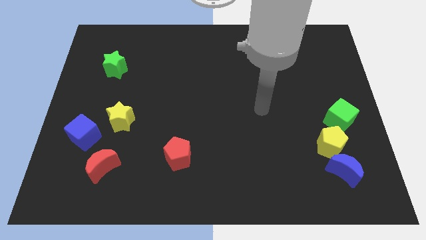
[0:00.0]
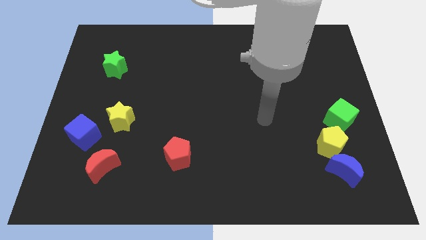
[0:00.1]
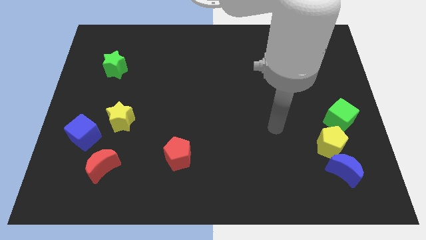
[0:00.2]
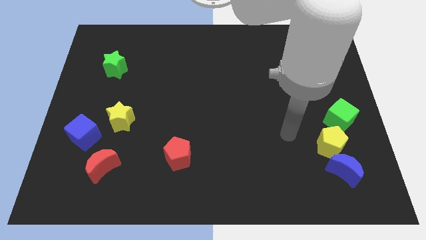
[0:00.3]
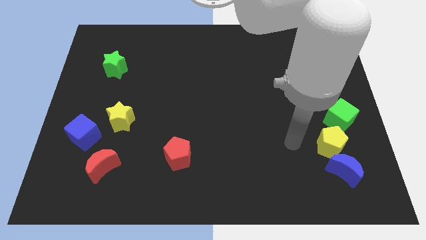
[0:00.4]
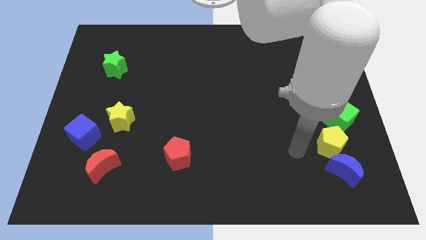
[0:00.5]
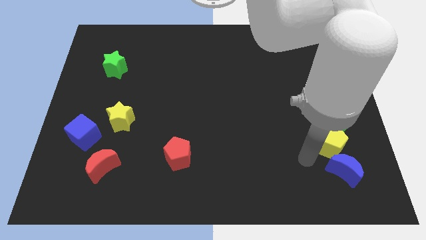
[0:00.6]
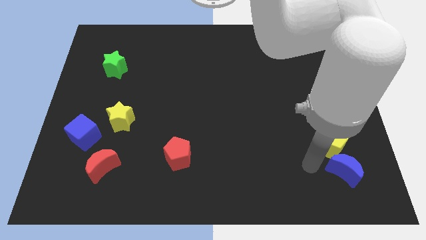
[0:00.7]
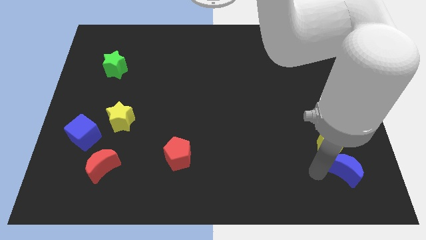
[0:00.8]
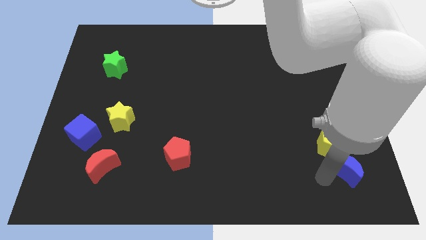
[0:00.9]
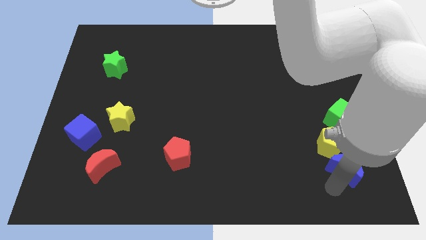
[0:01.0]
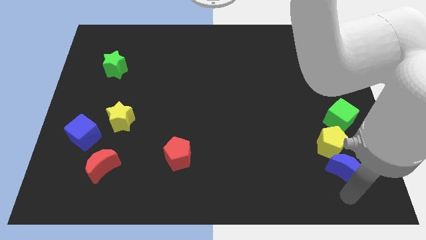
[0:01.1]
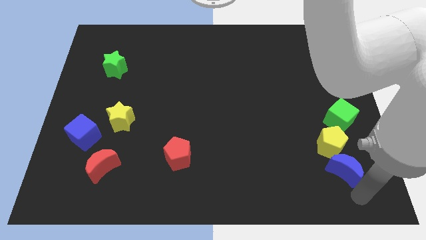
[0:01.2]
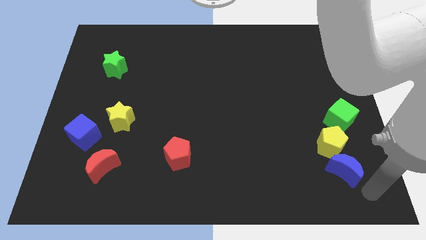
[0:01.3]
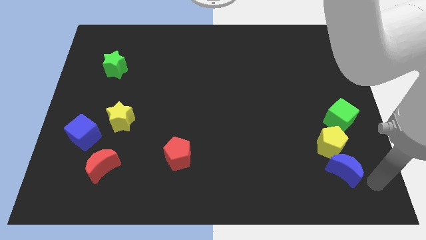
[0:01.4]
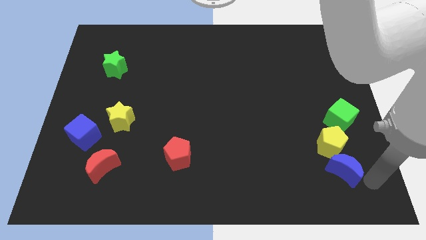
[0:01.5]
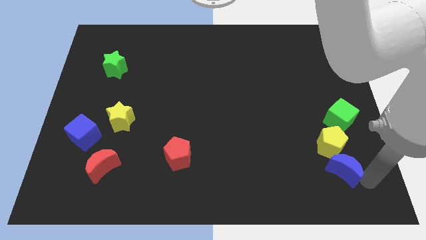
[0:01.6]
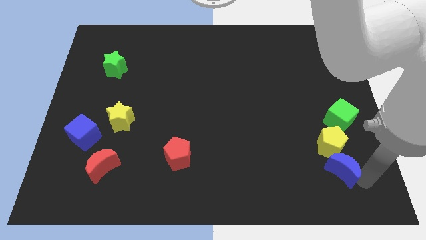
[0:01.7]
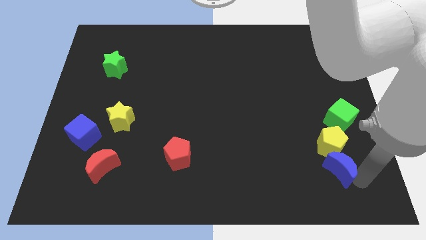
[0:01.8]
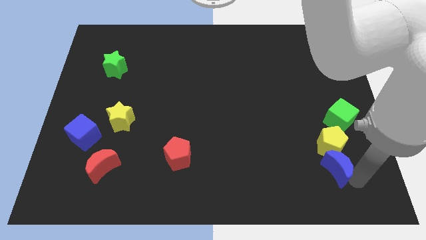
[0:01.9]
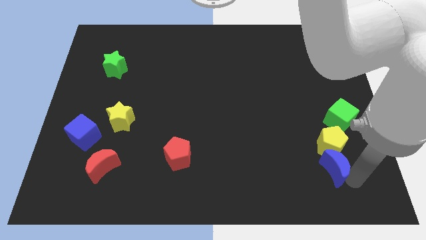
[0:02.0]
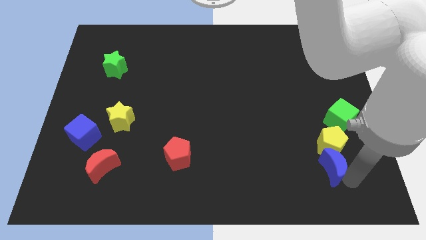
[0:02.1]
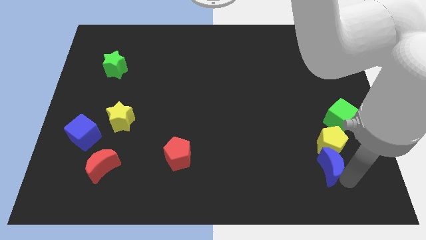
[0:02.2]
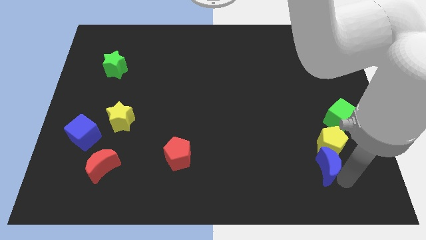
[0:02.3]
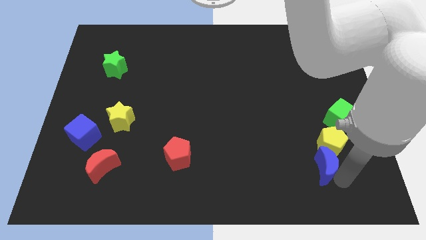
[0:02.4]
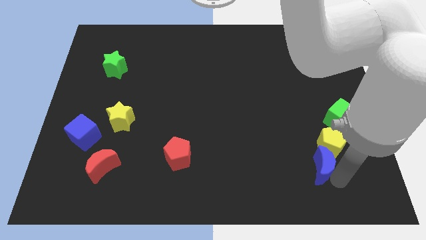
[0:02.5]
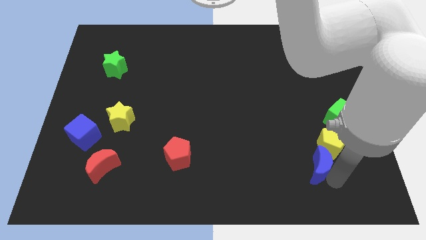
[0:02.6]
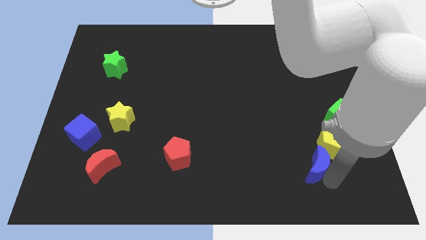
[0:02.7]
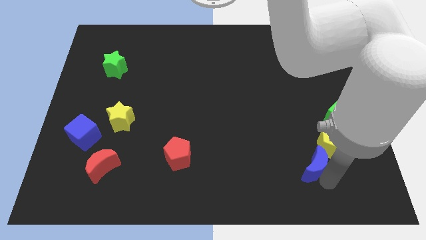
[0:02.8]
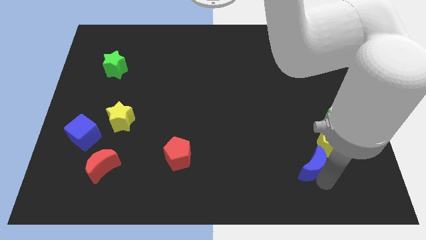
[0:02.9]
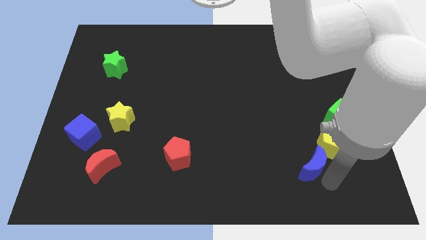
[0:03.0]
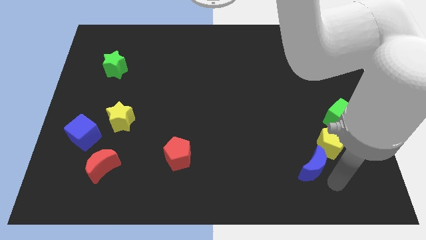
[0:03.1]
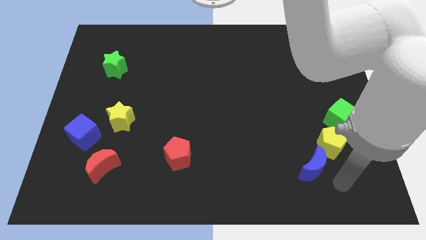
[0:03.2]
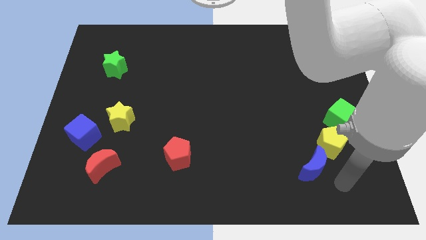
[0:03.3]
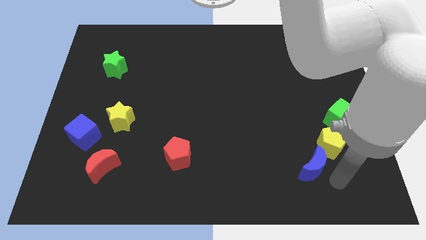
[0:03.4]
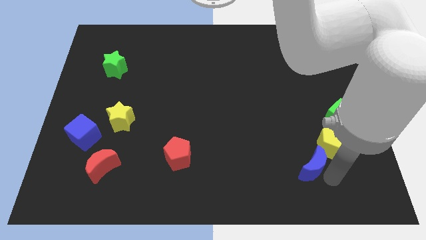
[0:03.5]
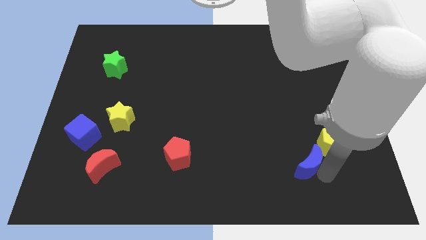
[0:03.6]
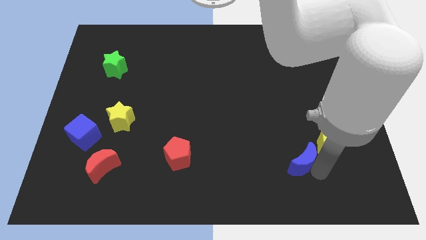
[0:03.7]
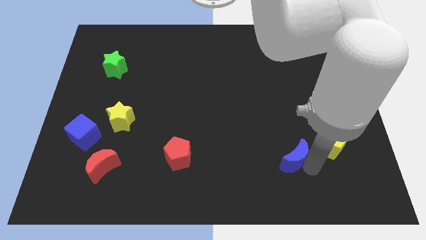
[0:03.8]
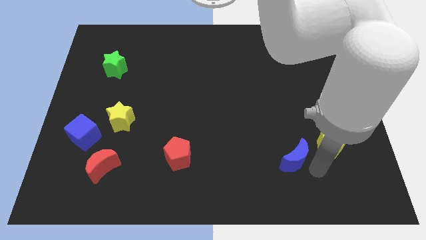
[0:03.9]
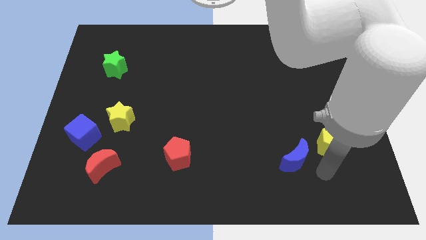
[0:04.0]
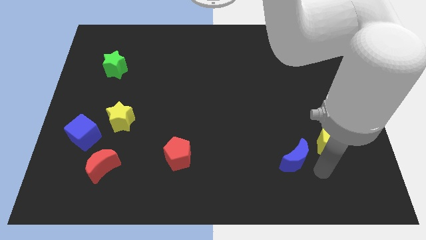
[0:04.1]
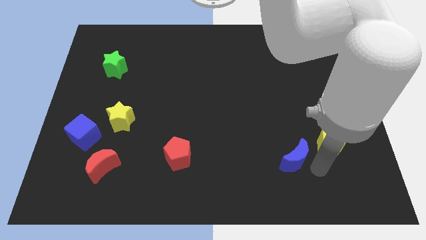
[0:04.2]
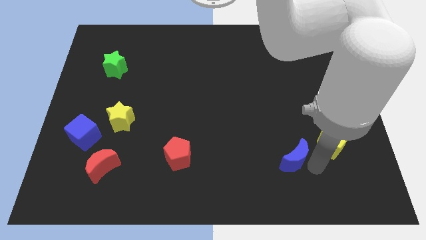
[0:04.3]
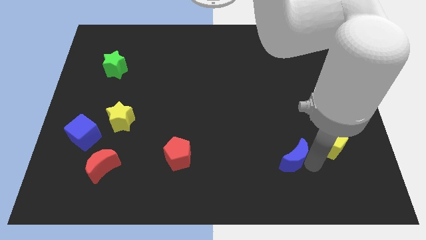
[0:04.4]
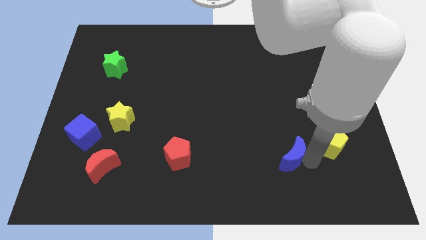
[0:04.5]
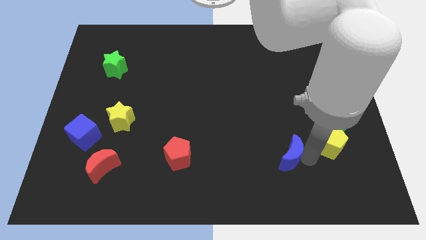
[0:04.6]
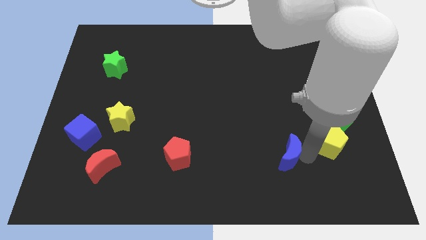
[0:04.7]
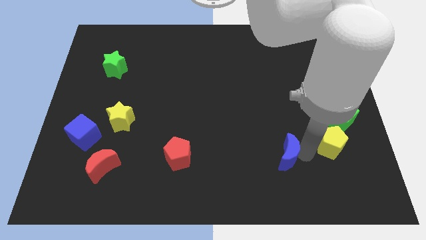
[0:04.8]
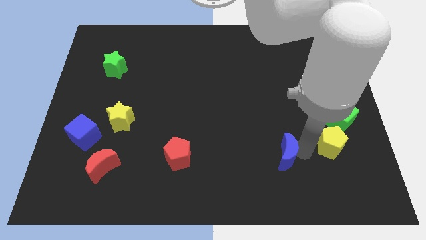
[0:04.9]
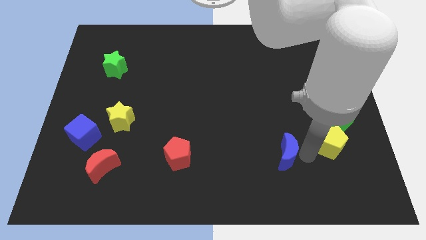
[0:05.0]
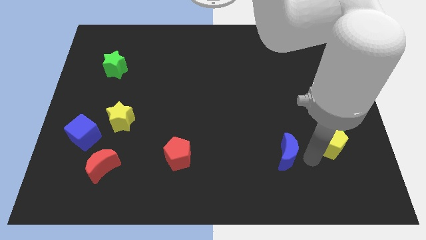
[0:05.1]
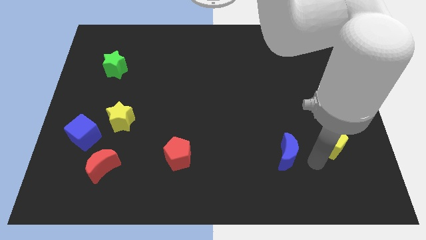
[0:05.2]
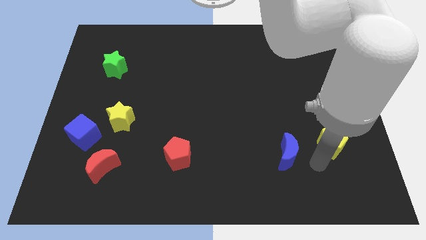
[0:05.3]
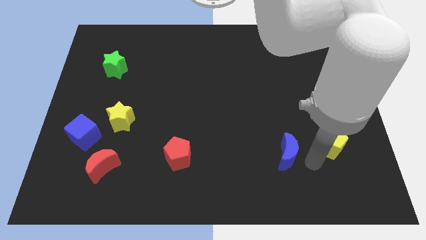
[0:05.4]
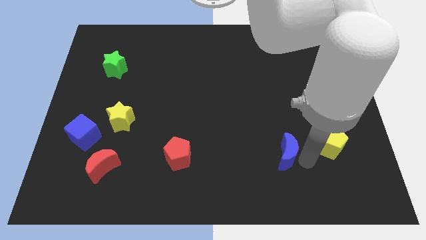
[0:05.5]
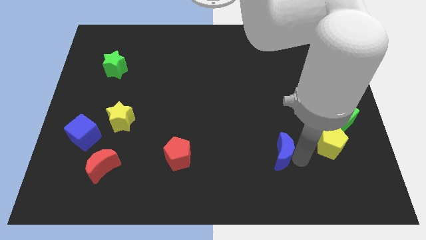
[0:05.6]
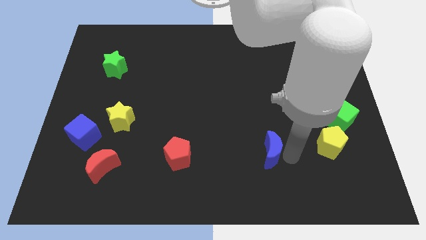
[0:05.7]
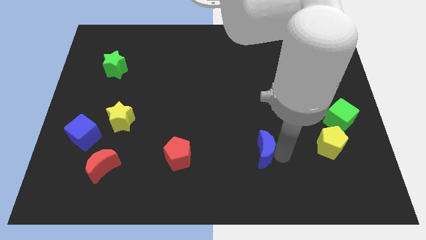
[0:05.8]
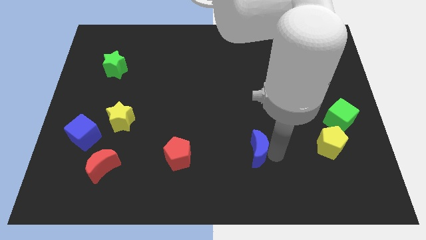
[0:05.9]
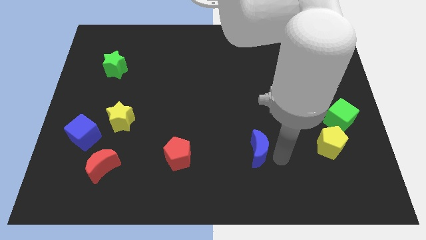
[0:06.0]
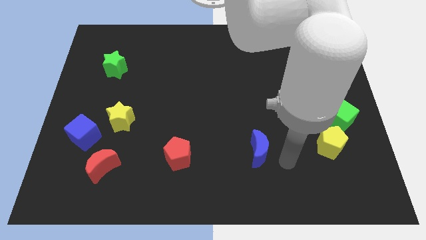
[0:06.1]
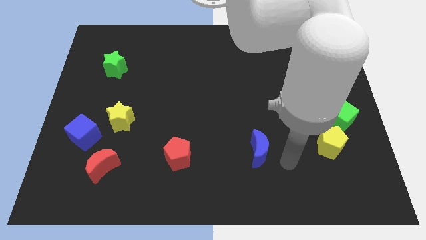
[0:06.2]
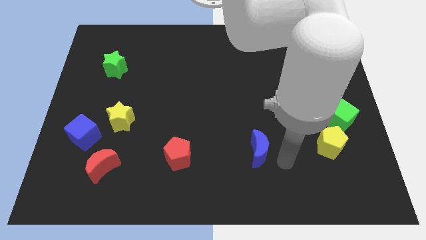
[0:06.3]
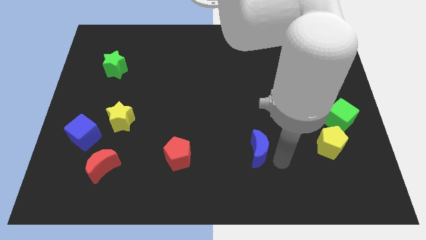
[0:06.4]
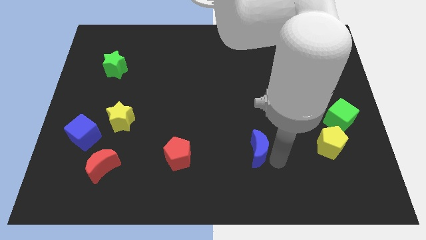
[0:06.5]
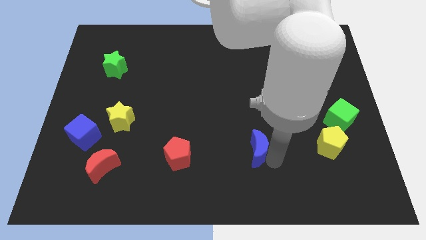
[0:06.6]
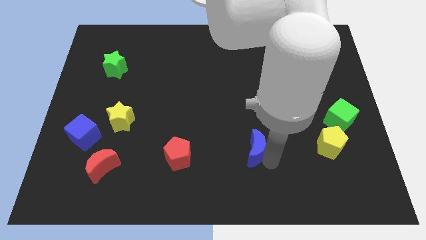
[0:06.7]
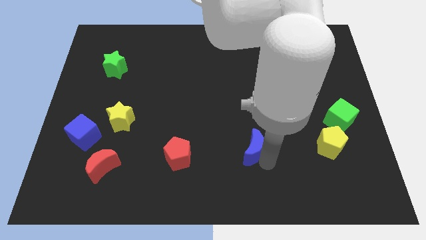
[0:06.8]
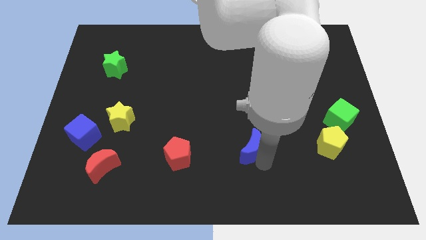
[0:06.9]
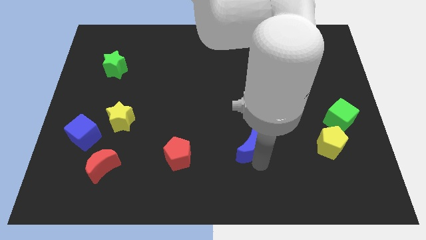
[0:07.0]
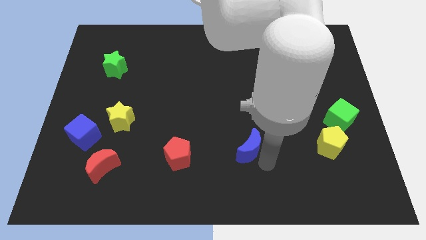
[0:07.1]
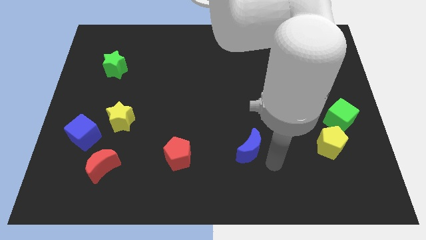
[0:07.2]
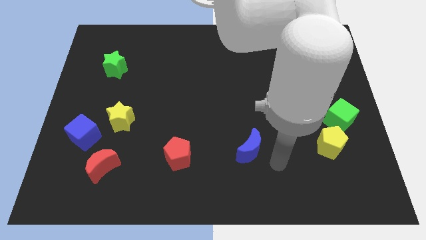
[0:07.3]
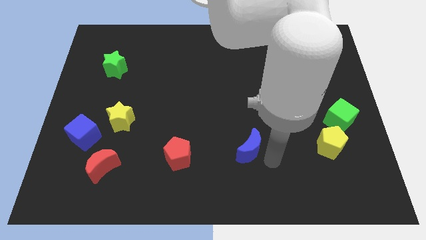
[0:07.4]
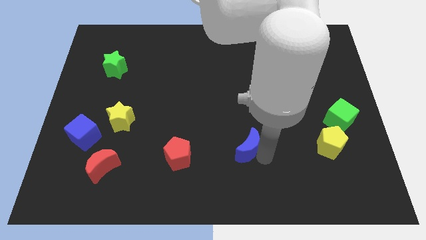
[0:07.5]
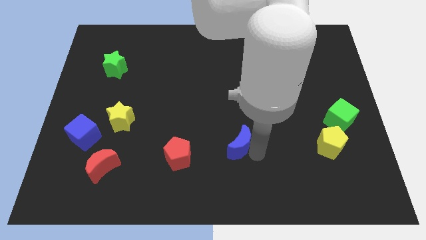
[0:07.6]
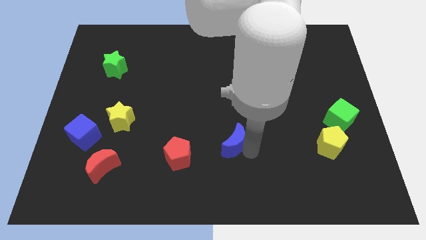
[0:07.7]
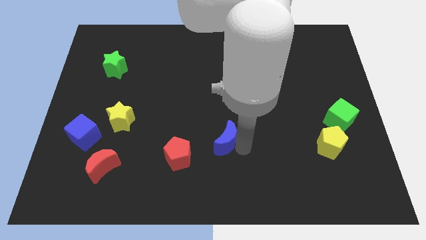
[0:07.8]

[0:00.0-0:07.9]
slide the blue moon diagonally up and to the right of the red pentagon

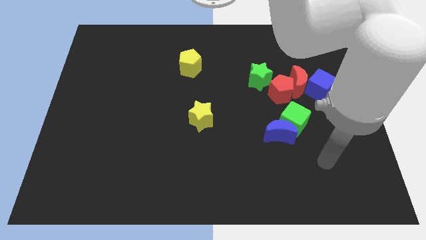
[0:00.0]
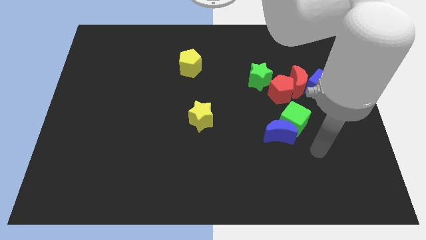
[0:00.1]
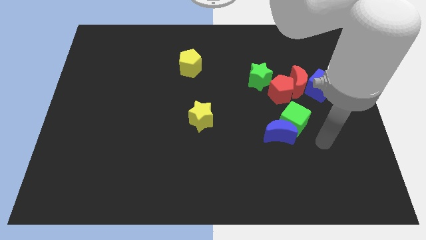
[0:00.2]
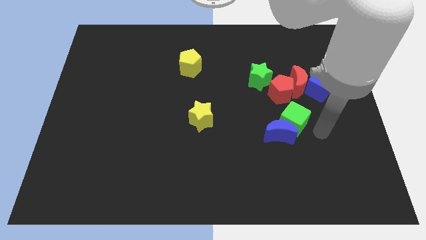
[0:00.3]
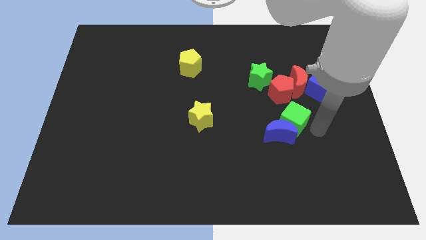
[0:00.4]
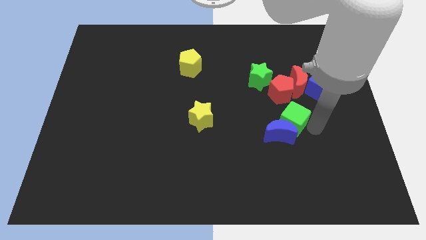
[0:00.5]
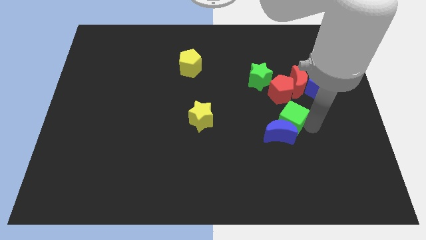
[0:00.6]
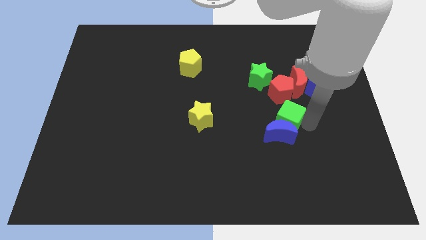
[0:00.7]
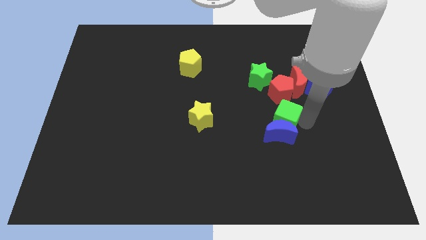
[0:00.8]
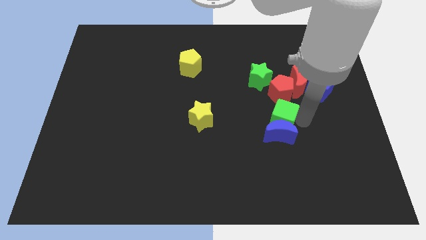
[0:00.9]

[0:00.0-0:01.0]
push the green cube to the bottom of the green star
